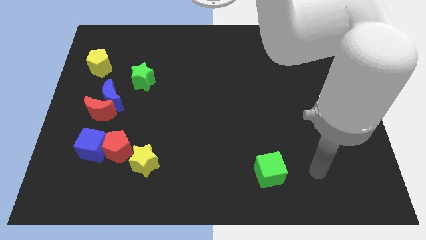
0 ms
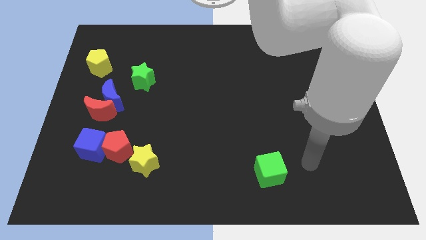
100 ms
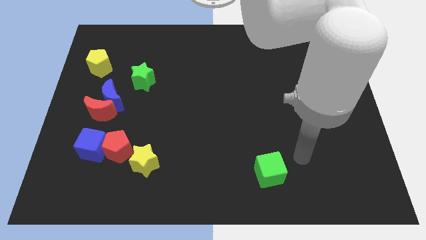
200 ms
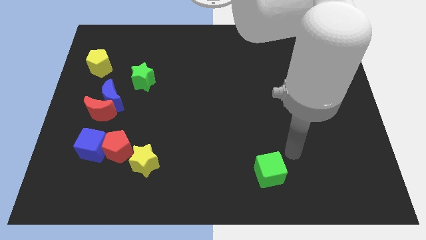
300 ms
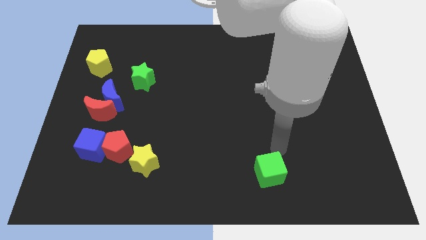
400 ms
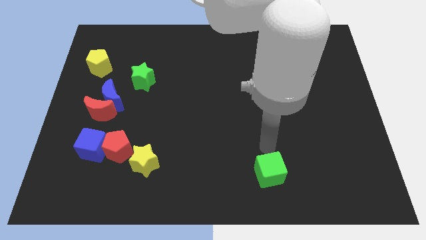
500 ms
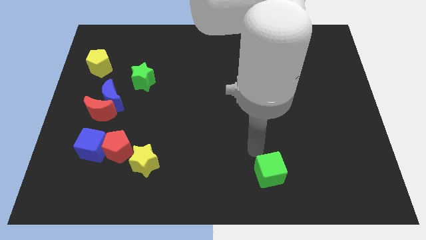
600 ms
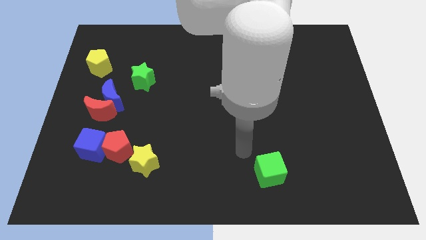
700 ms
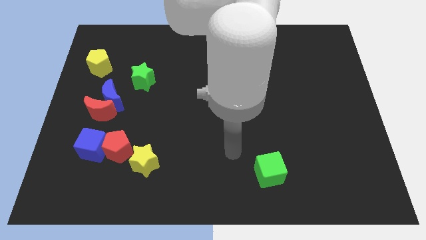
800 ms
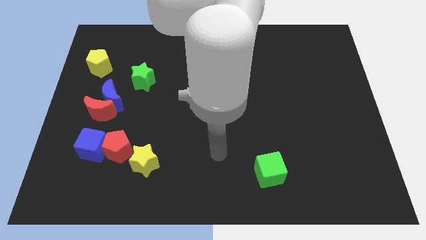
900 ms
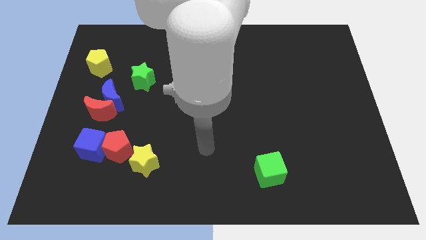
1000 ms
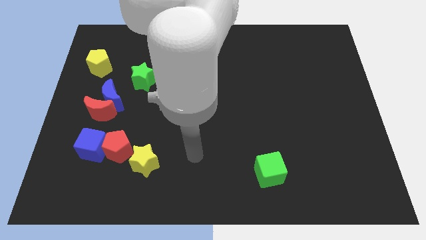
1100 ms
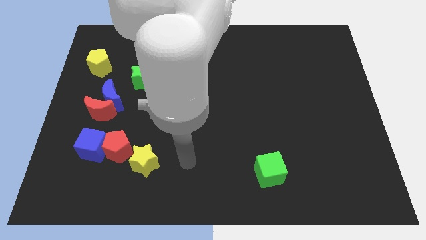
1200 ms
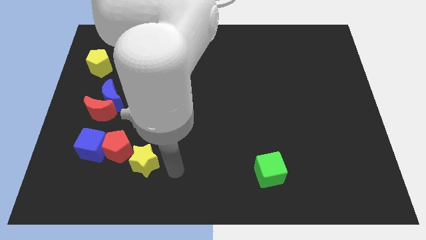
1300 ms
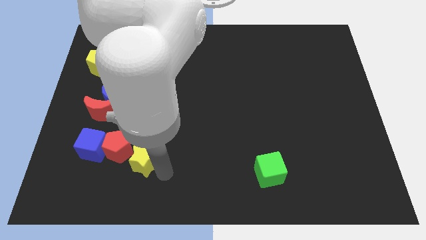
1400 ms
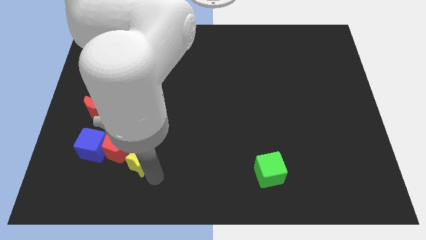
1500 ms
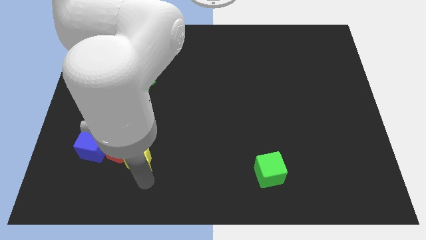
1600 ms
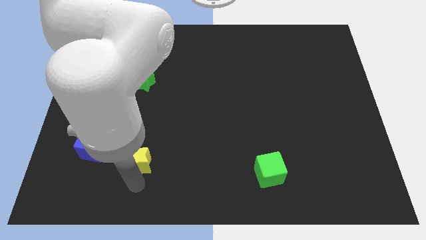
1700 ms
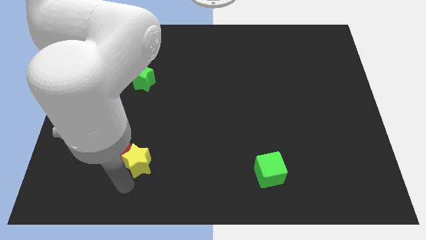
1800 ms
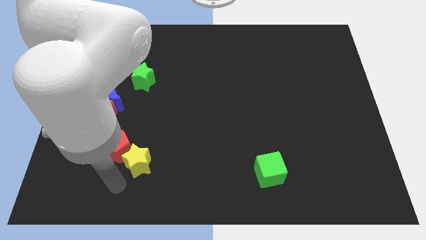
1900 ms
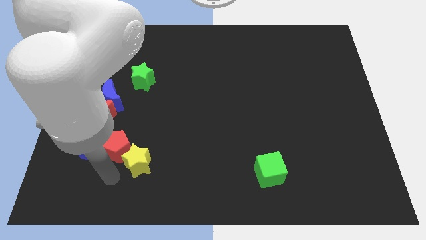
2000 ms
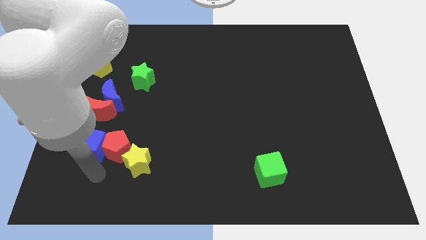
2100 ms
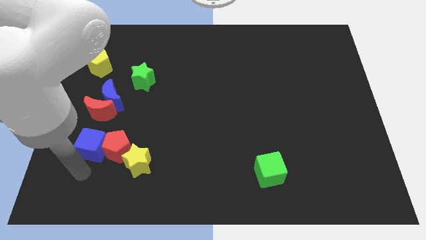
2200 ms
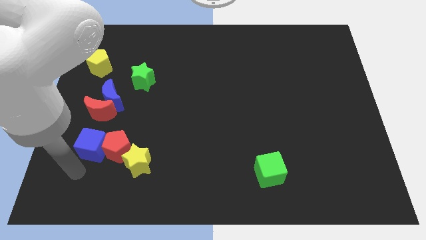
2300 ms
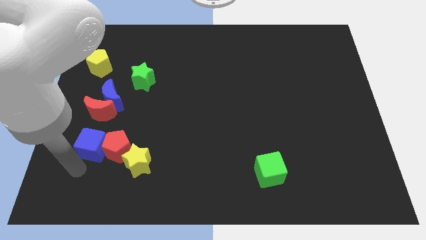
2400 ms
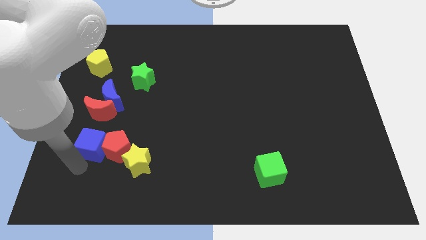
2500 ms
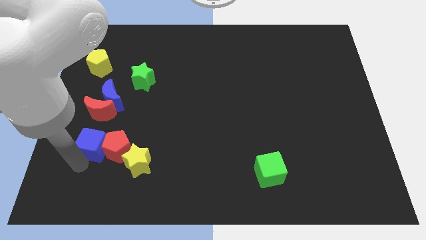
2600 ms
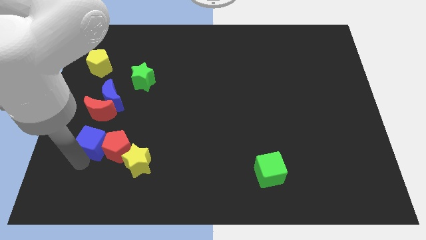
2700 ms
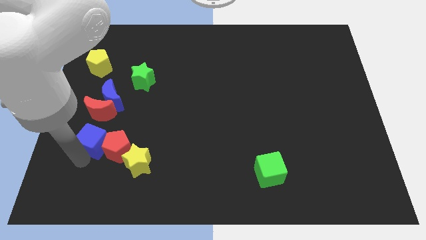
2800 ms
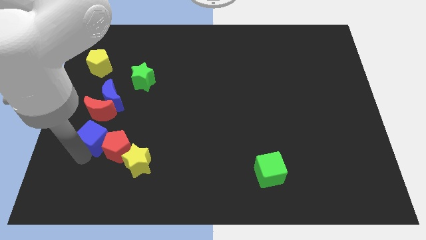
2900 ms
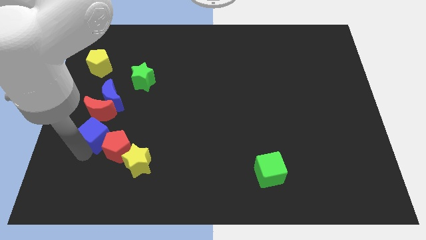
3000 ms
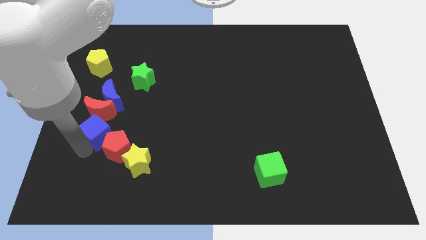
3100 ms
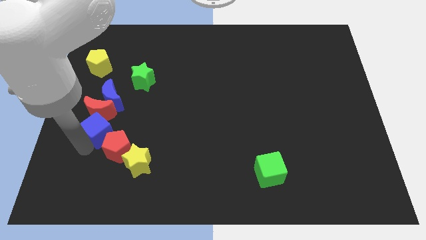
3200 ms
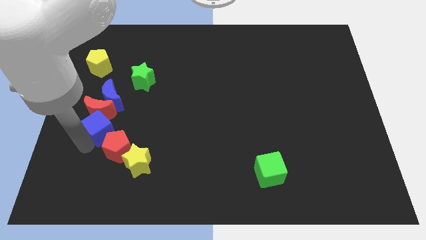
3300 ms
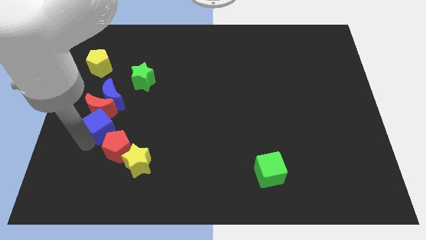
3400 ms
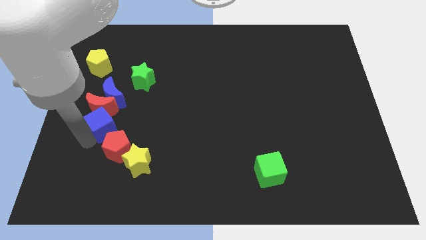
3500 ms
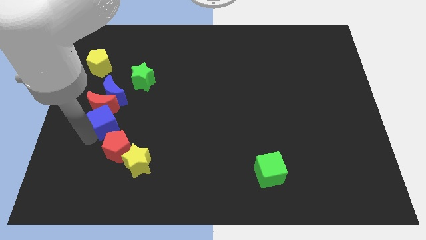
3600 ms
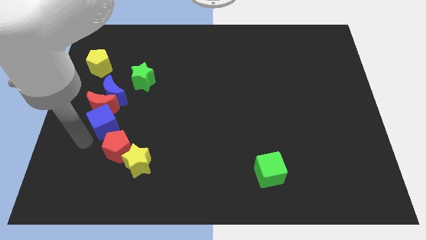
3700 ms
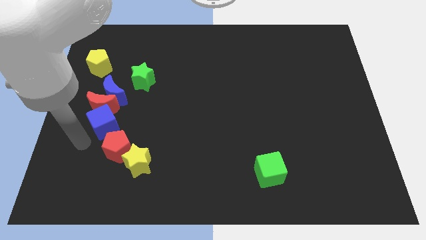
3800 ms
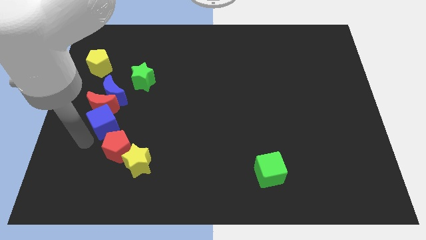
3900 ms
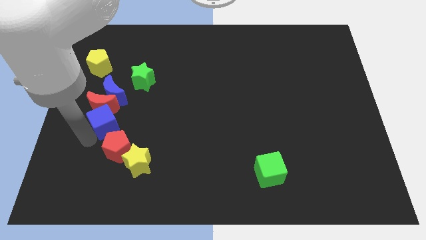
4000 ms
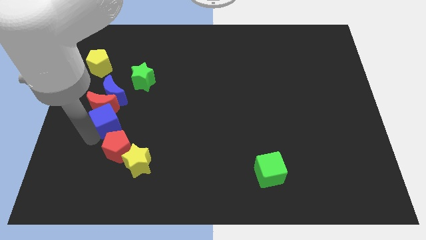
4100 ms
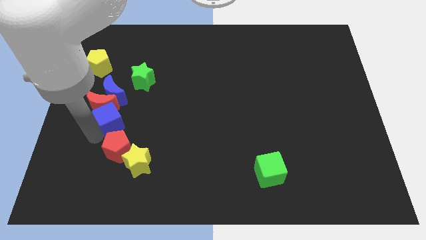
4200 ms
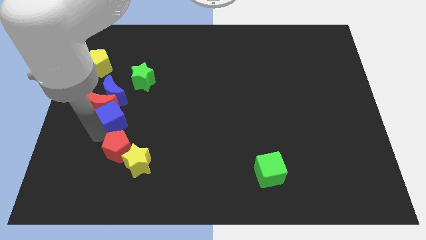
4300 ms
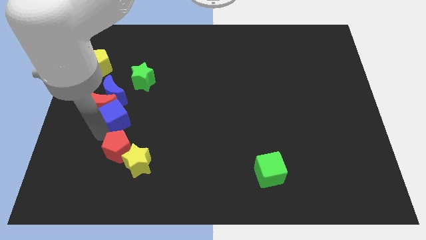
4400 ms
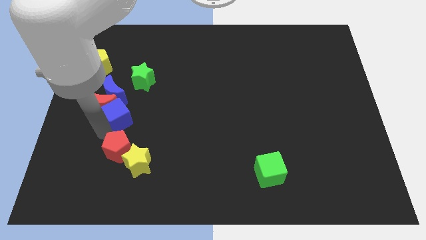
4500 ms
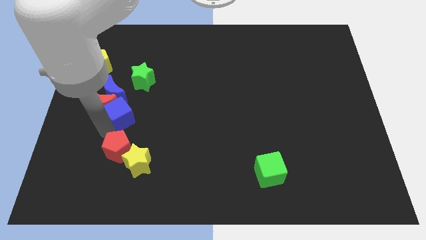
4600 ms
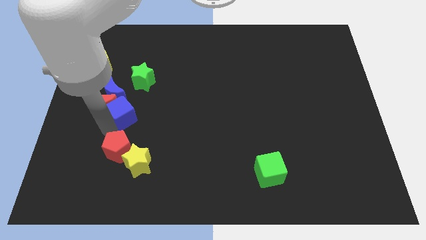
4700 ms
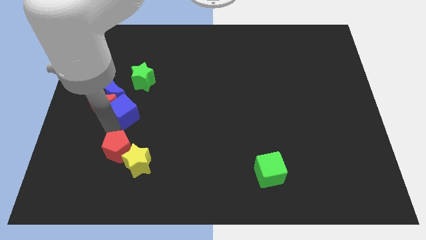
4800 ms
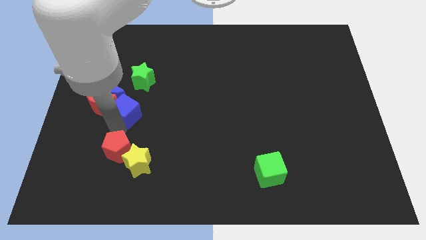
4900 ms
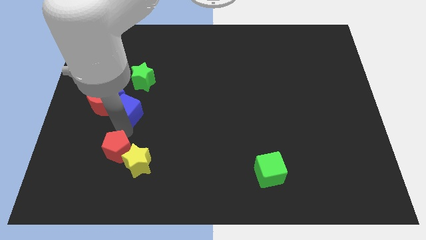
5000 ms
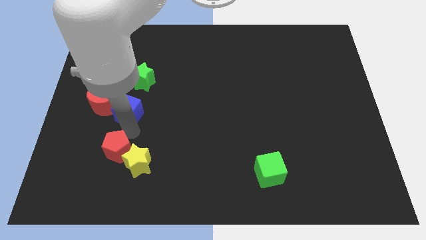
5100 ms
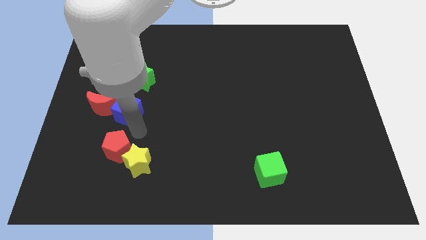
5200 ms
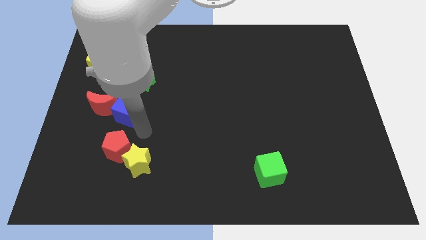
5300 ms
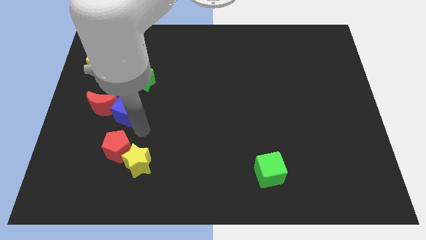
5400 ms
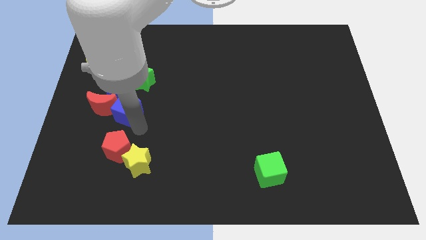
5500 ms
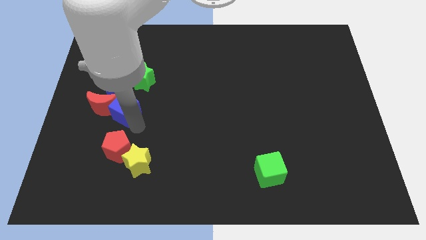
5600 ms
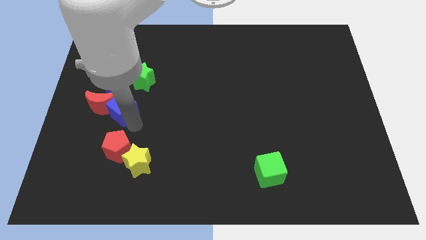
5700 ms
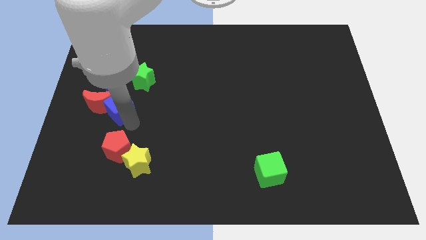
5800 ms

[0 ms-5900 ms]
move the blue cube close to the blue moon

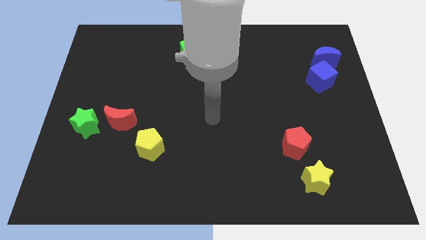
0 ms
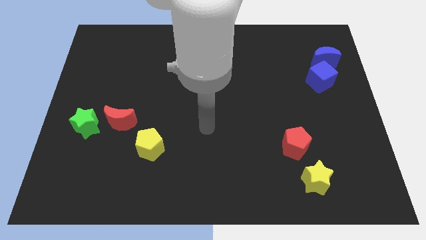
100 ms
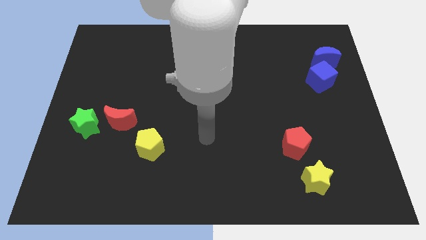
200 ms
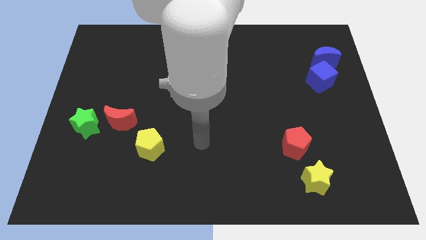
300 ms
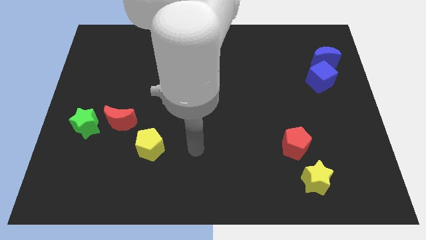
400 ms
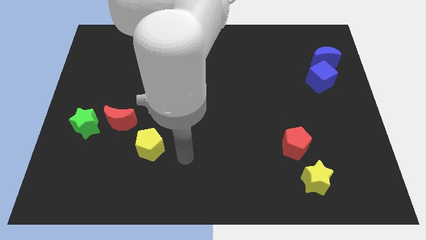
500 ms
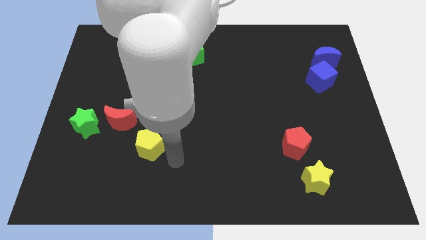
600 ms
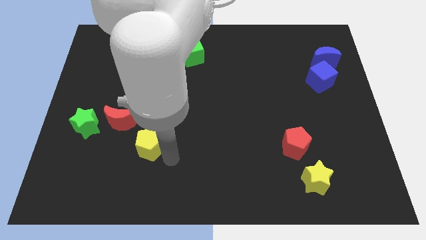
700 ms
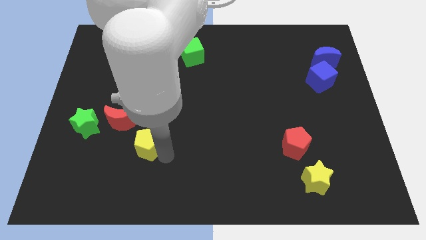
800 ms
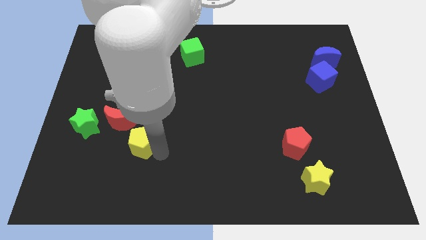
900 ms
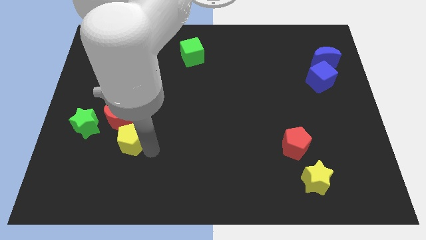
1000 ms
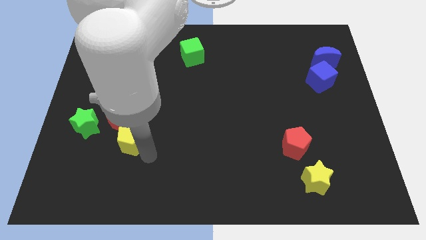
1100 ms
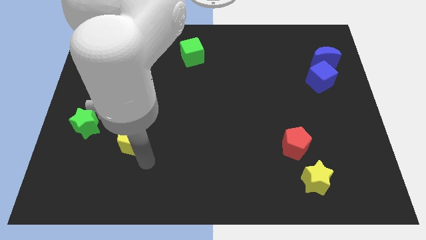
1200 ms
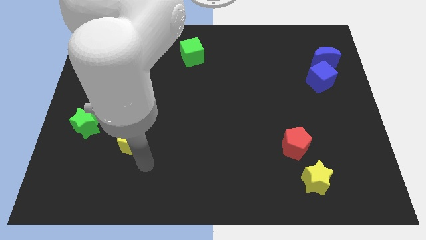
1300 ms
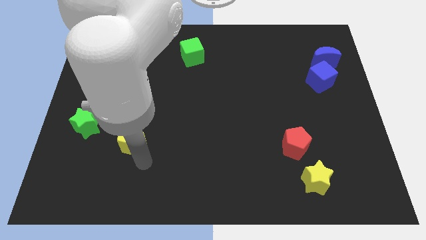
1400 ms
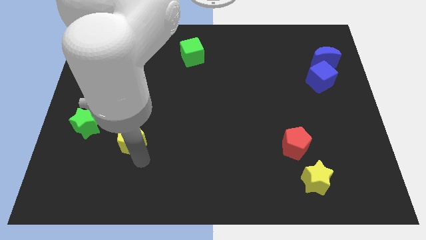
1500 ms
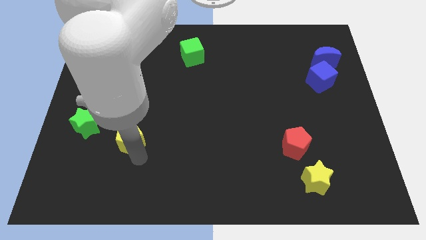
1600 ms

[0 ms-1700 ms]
put the yellow pentagon to the red moon
